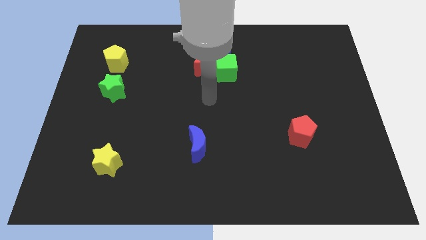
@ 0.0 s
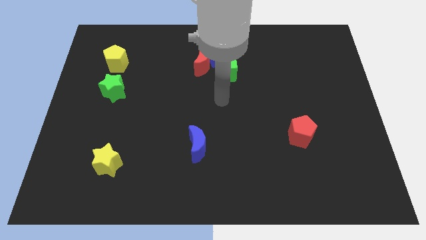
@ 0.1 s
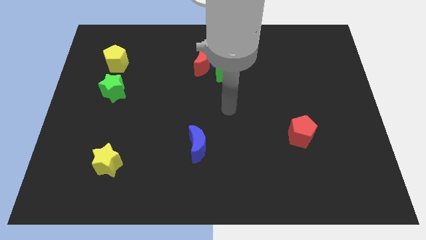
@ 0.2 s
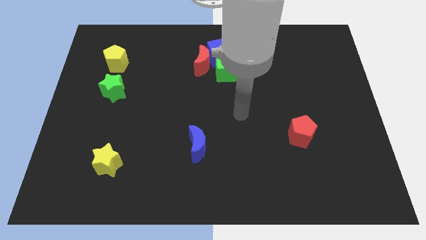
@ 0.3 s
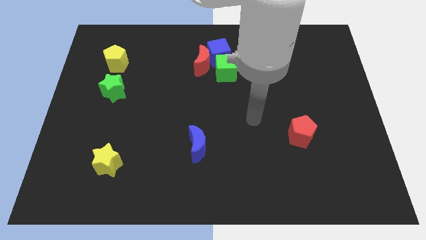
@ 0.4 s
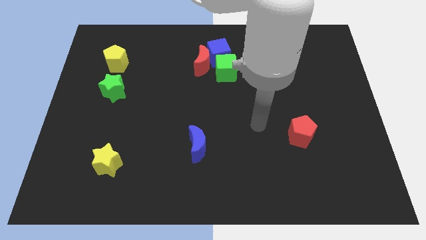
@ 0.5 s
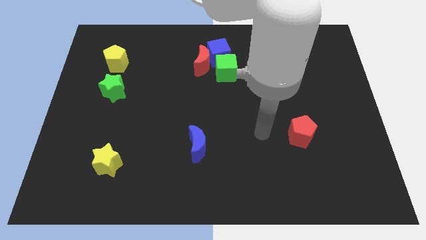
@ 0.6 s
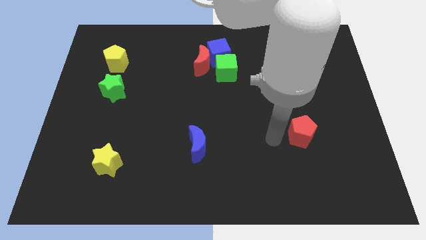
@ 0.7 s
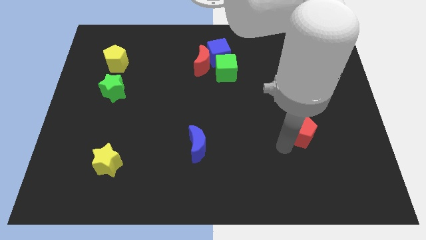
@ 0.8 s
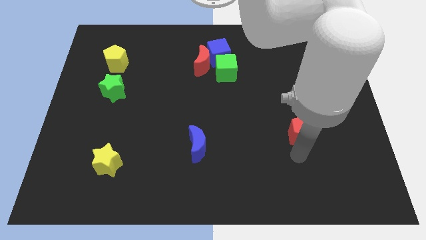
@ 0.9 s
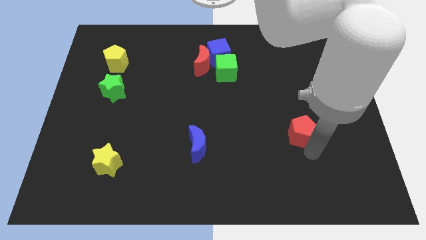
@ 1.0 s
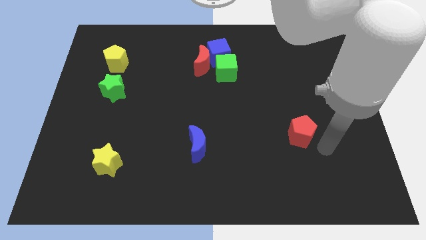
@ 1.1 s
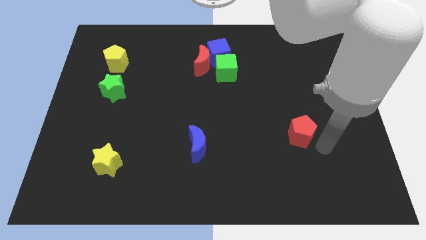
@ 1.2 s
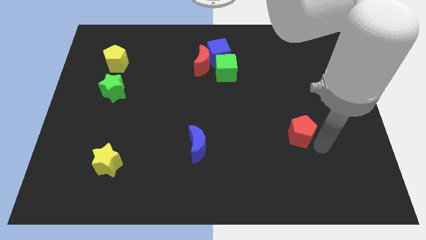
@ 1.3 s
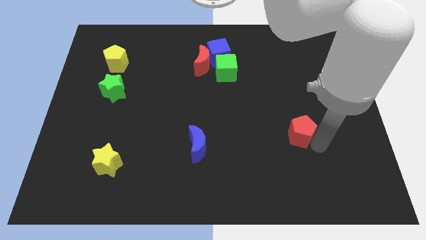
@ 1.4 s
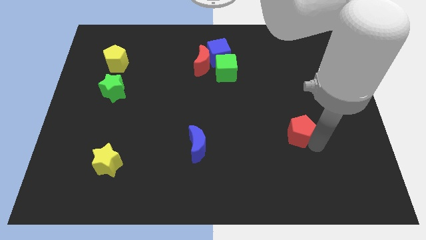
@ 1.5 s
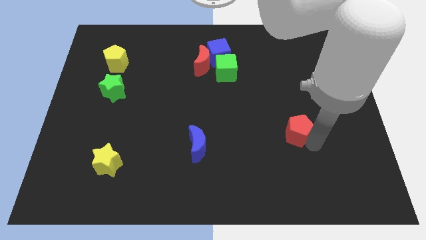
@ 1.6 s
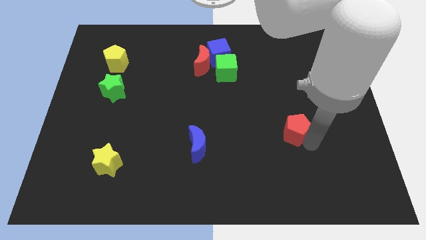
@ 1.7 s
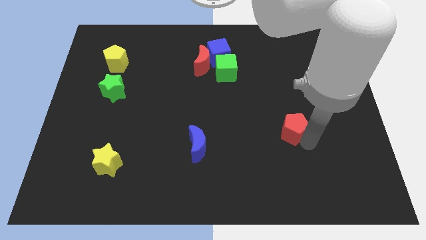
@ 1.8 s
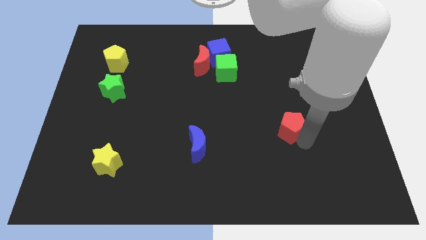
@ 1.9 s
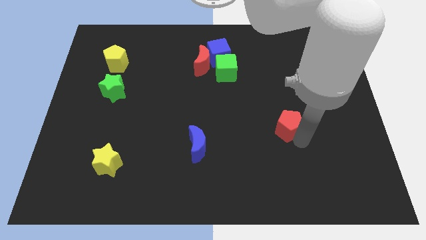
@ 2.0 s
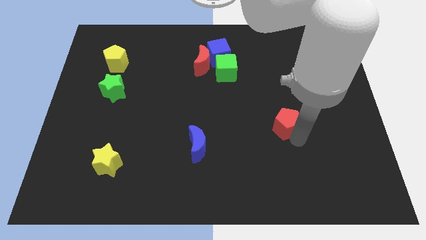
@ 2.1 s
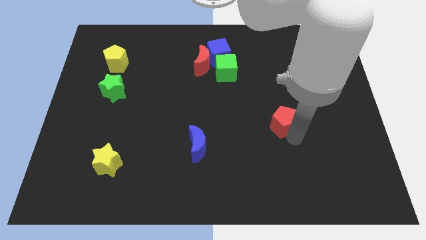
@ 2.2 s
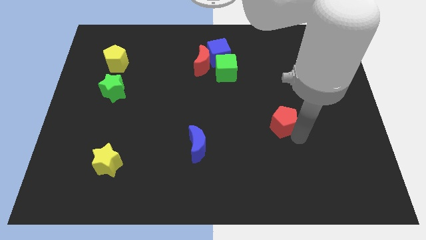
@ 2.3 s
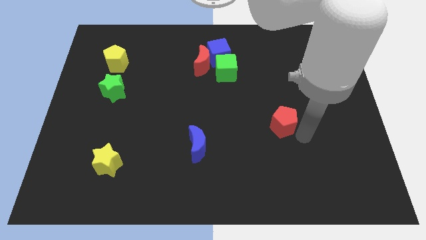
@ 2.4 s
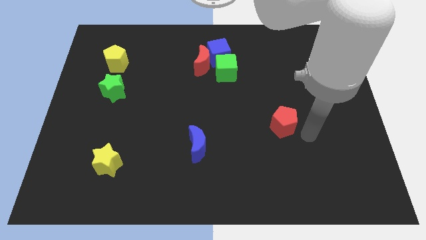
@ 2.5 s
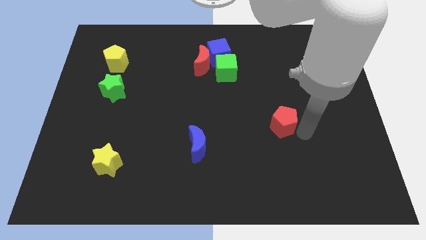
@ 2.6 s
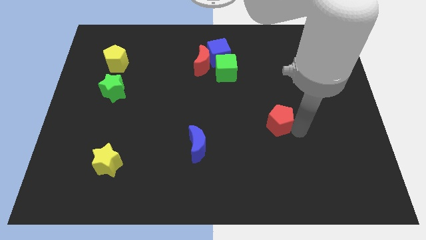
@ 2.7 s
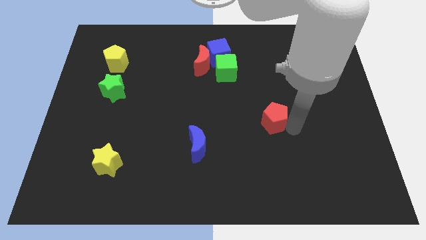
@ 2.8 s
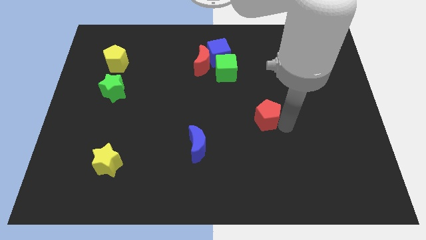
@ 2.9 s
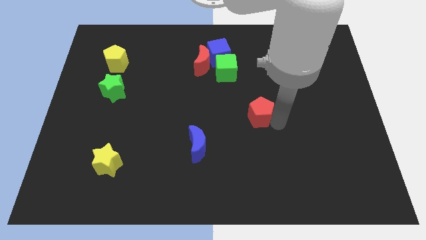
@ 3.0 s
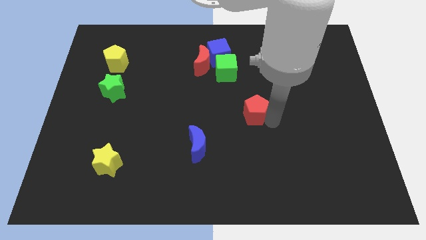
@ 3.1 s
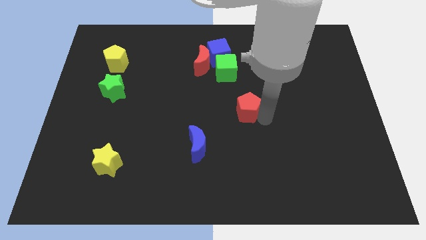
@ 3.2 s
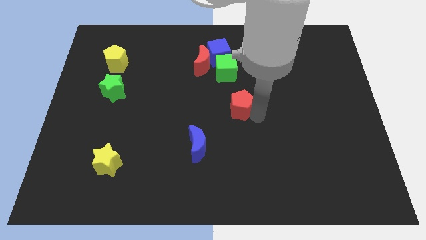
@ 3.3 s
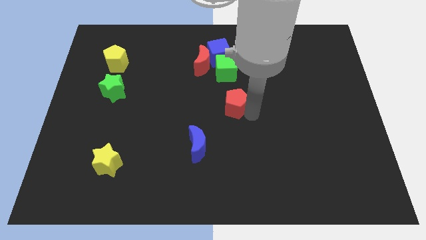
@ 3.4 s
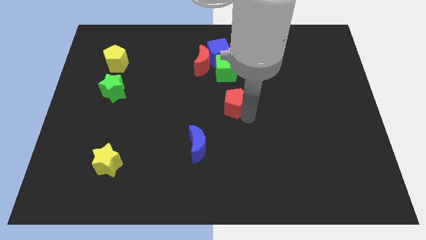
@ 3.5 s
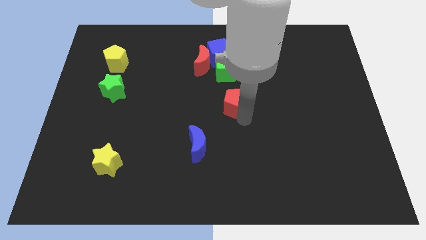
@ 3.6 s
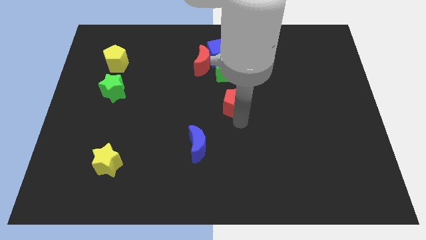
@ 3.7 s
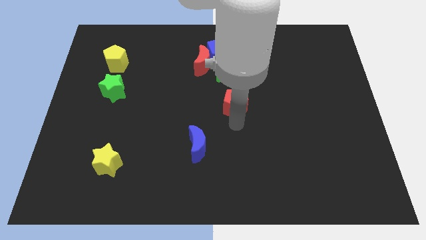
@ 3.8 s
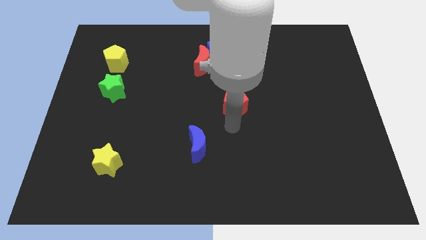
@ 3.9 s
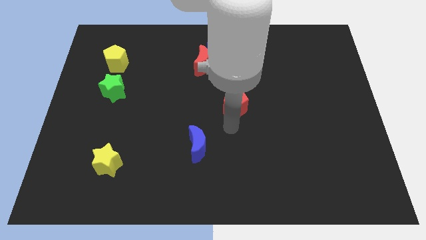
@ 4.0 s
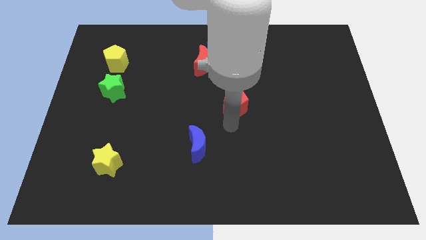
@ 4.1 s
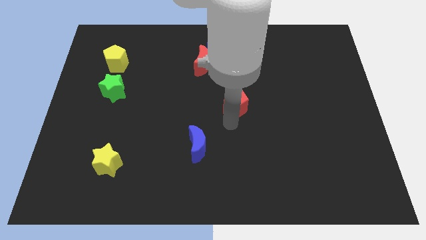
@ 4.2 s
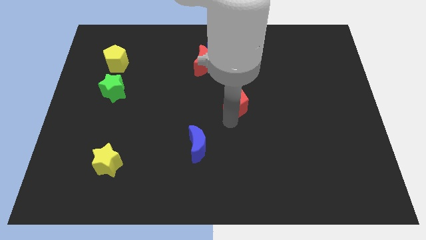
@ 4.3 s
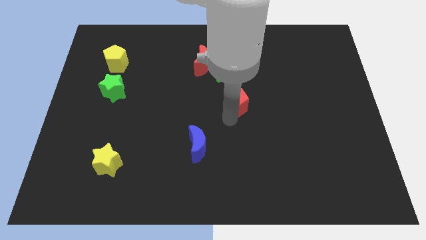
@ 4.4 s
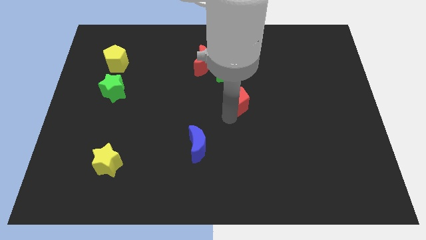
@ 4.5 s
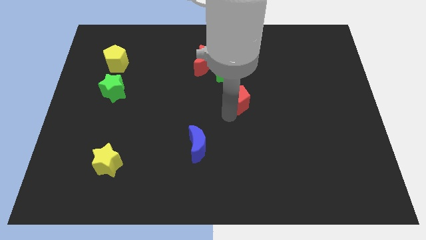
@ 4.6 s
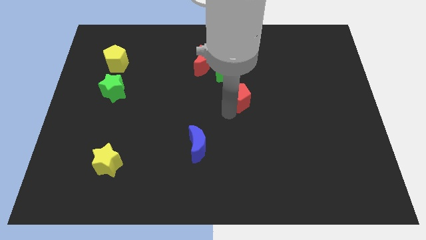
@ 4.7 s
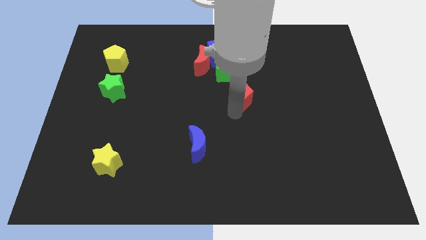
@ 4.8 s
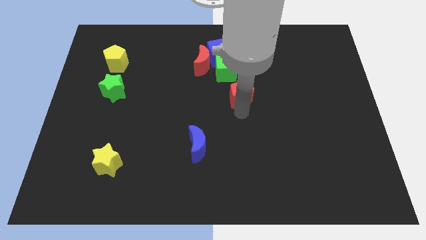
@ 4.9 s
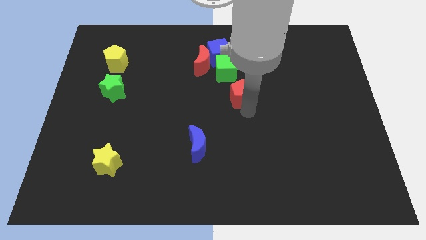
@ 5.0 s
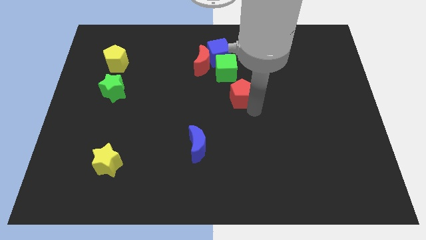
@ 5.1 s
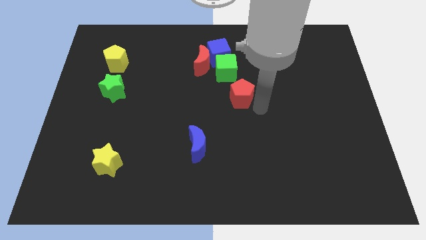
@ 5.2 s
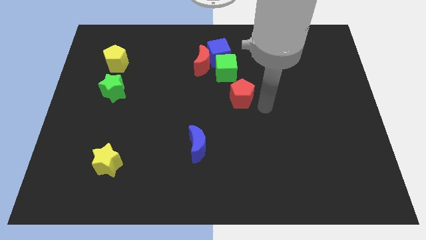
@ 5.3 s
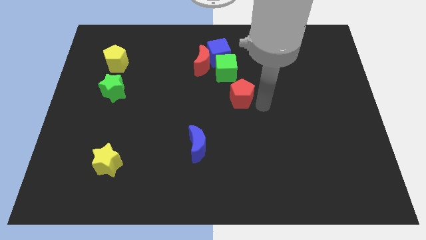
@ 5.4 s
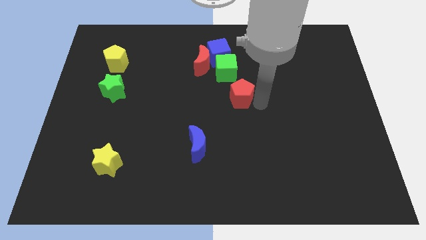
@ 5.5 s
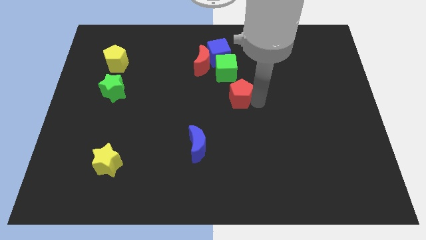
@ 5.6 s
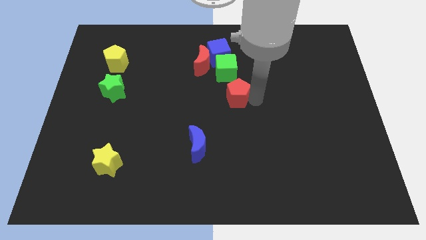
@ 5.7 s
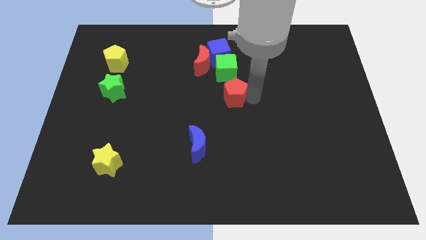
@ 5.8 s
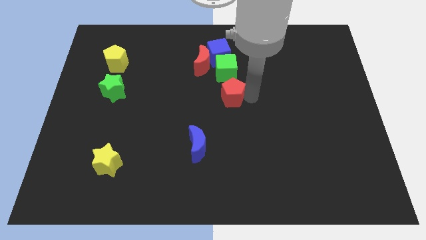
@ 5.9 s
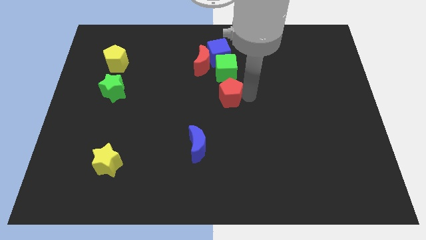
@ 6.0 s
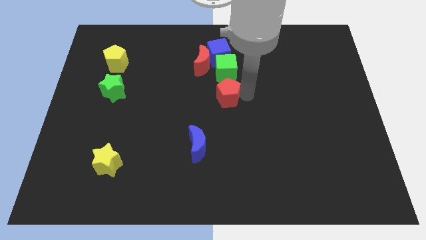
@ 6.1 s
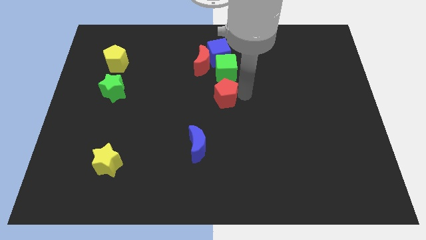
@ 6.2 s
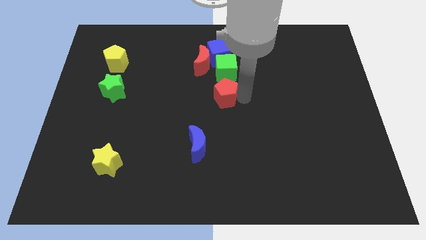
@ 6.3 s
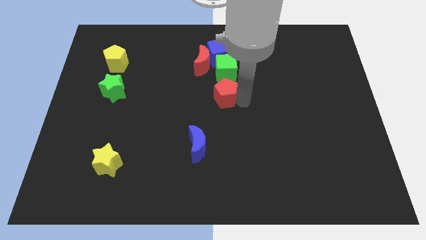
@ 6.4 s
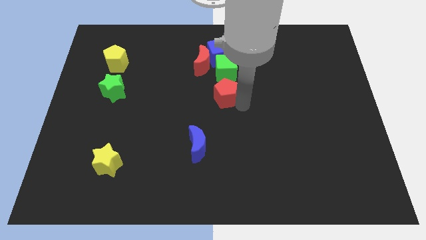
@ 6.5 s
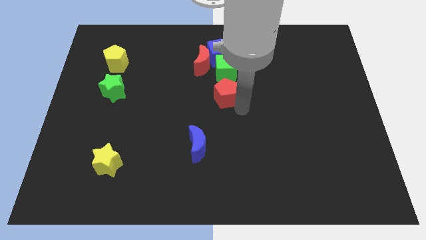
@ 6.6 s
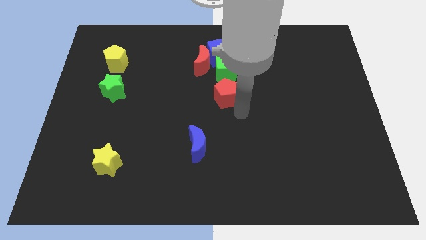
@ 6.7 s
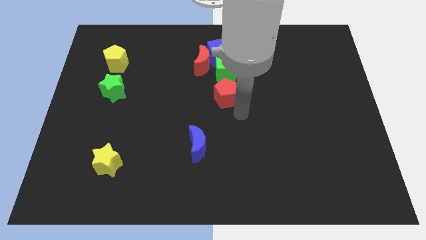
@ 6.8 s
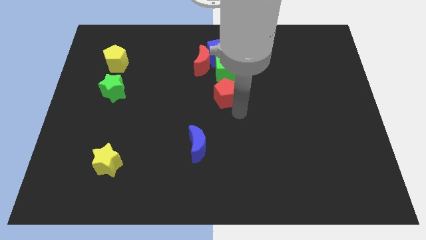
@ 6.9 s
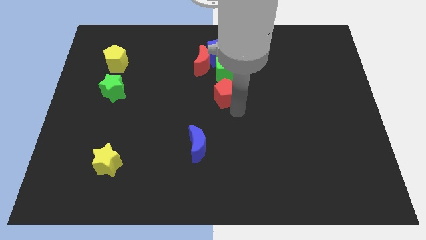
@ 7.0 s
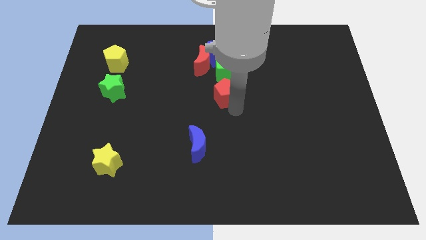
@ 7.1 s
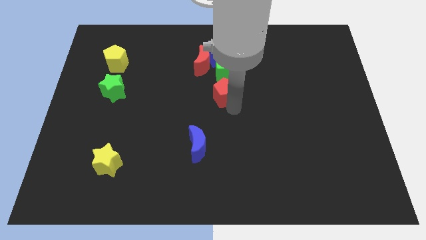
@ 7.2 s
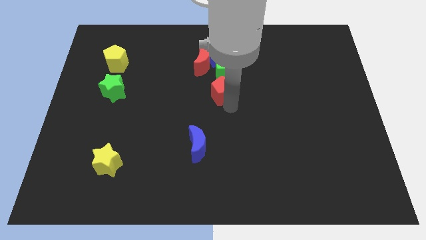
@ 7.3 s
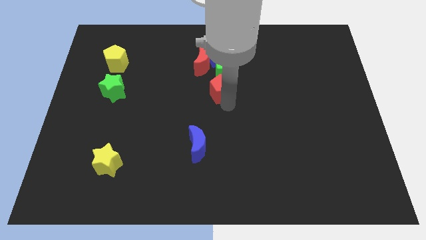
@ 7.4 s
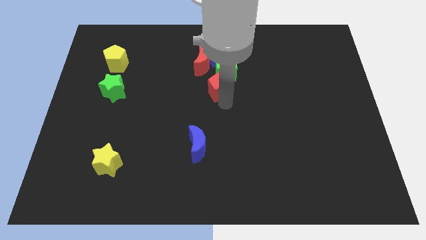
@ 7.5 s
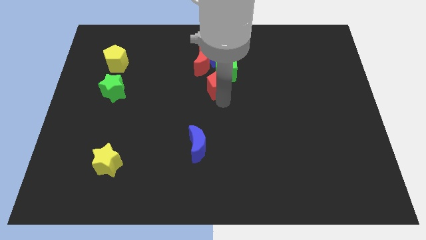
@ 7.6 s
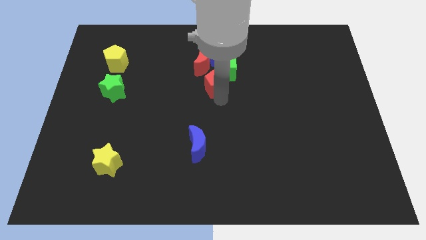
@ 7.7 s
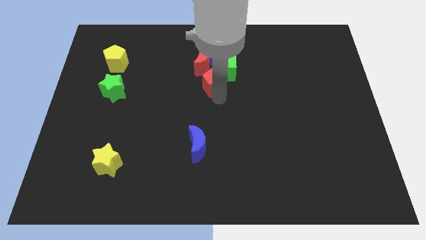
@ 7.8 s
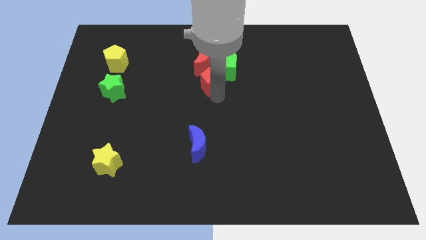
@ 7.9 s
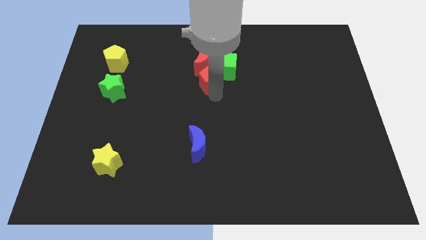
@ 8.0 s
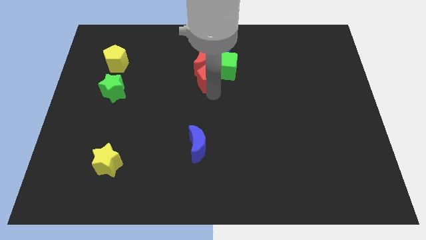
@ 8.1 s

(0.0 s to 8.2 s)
push the red pentagon to the red moon
